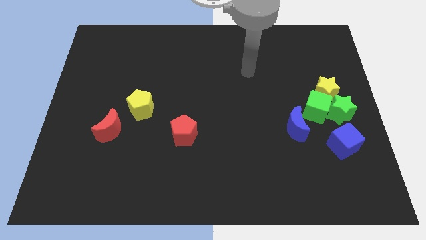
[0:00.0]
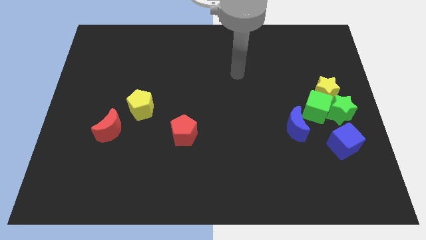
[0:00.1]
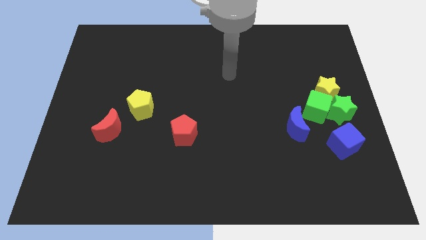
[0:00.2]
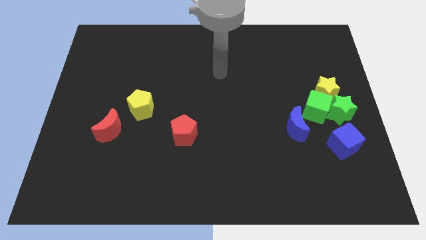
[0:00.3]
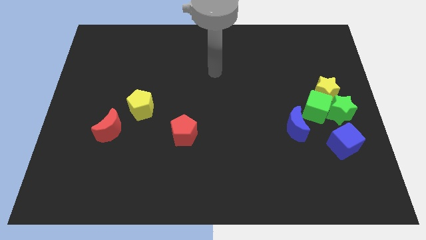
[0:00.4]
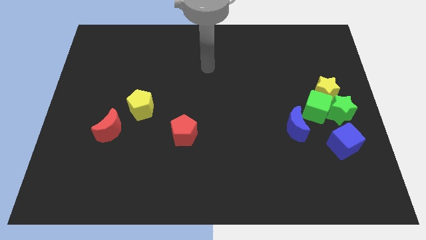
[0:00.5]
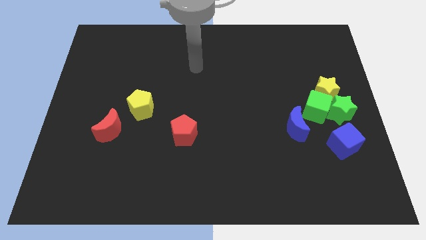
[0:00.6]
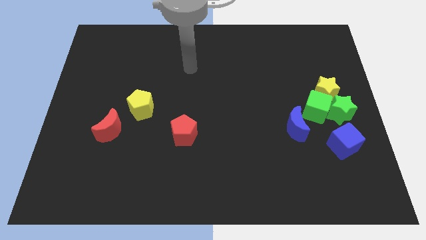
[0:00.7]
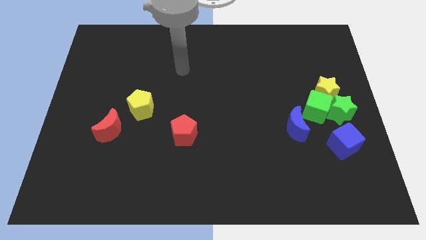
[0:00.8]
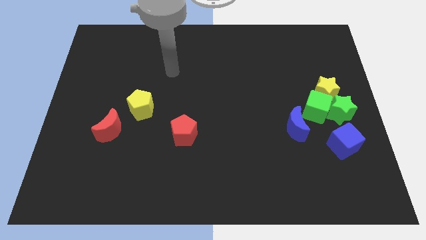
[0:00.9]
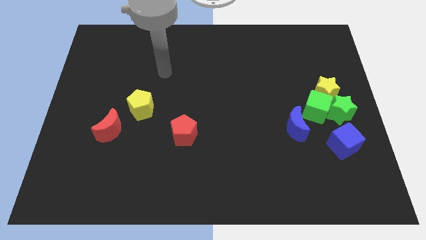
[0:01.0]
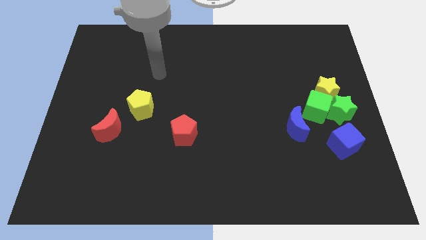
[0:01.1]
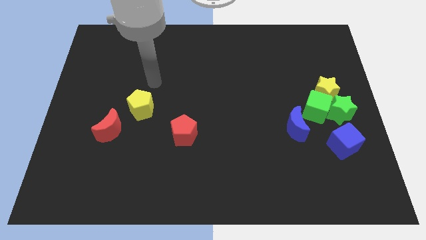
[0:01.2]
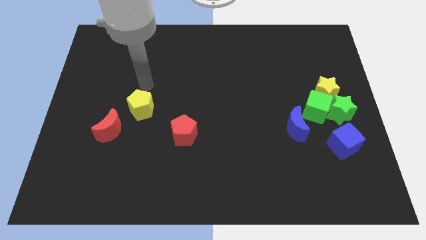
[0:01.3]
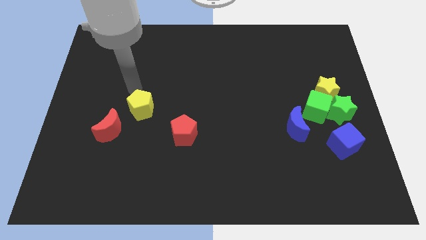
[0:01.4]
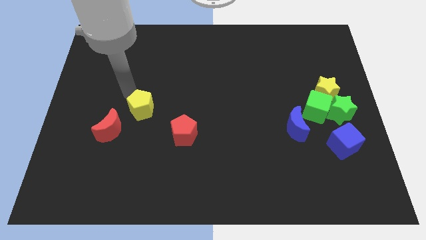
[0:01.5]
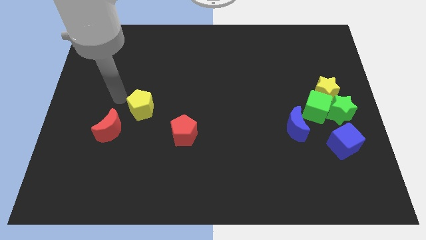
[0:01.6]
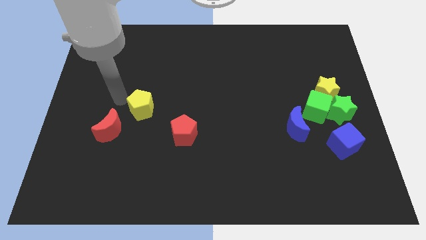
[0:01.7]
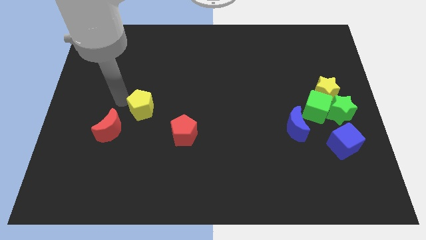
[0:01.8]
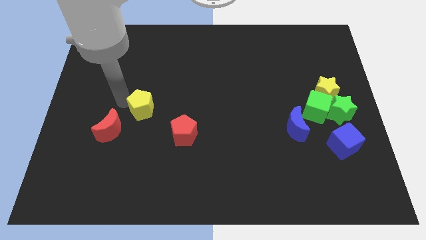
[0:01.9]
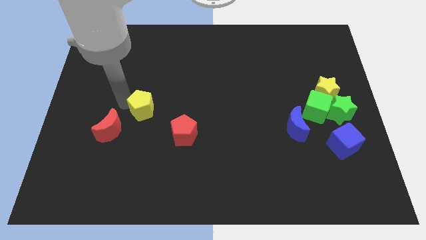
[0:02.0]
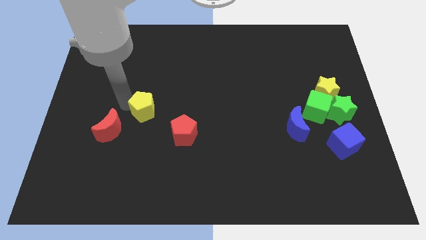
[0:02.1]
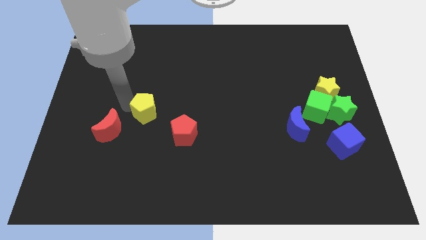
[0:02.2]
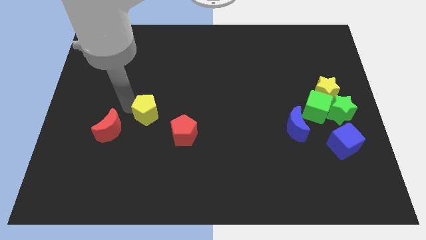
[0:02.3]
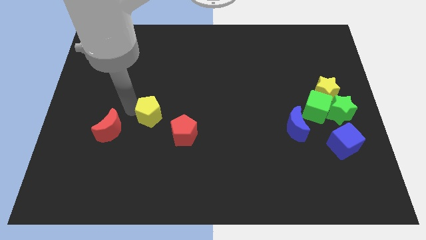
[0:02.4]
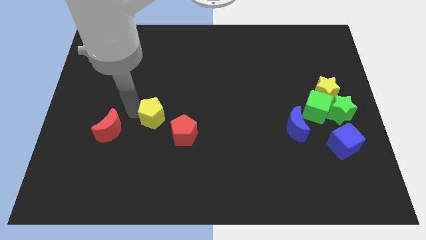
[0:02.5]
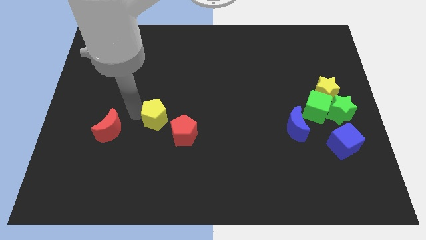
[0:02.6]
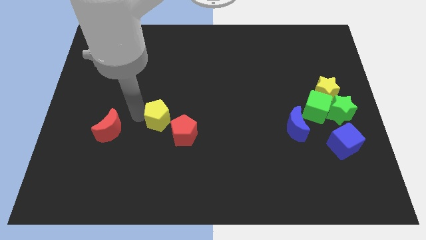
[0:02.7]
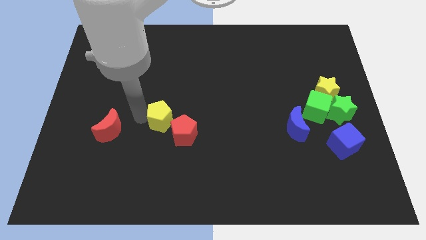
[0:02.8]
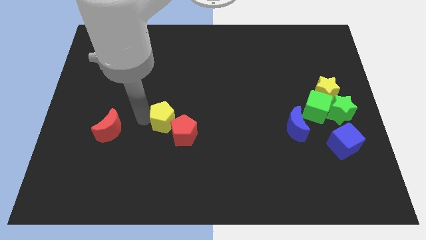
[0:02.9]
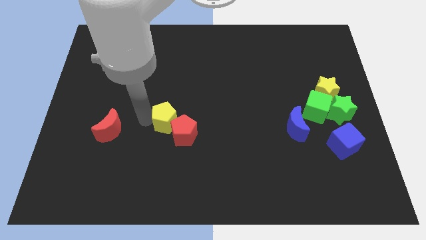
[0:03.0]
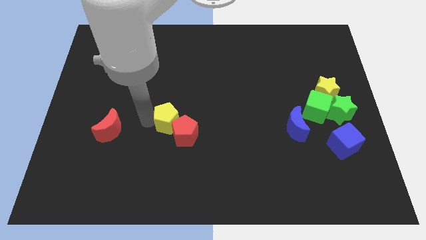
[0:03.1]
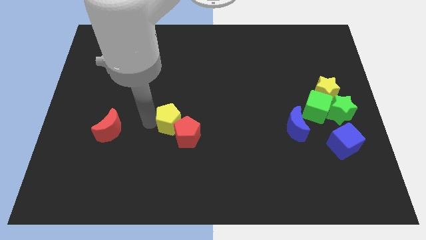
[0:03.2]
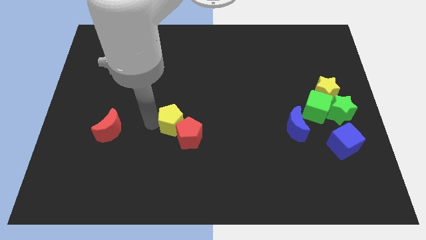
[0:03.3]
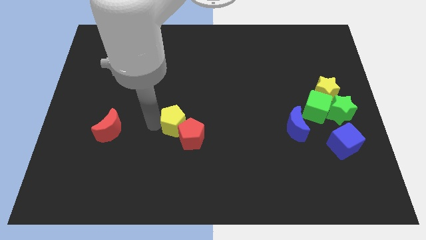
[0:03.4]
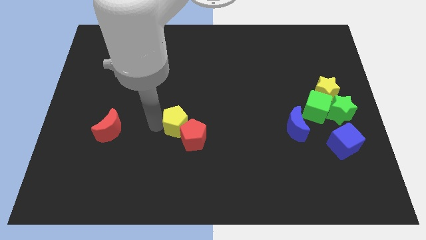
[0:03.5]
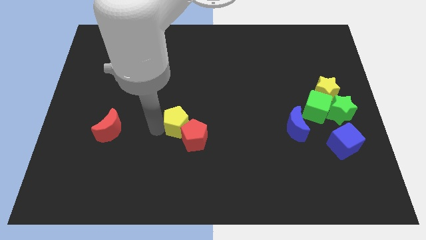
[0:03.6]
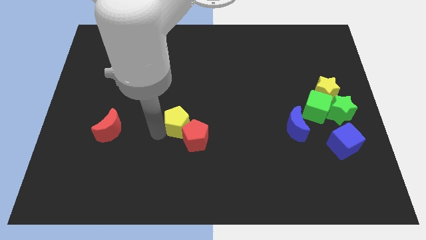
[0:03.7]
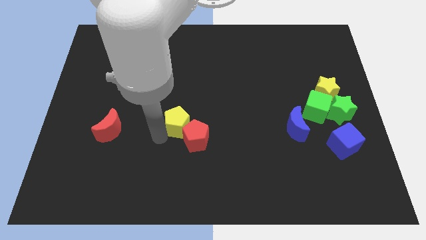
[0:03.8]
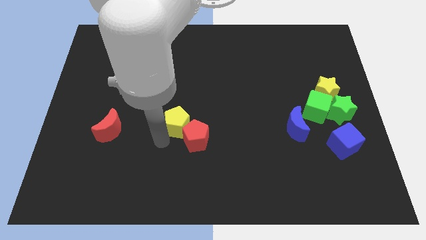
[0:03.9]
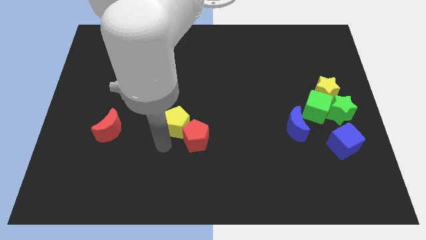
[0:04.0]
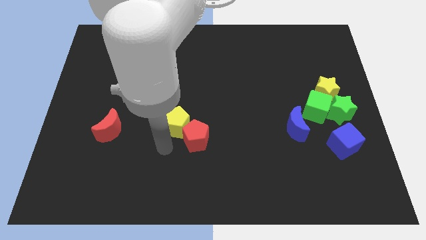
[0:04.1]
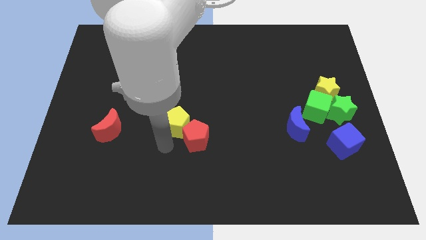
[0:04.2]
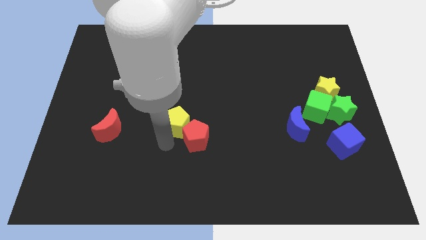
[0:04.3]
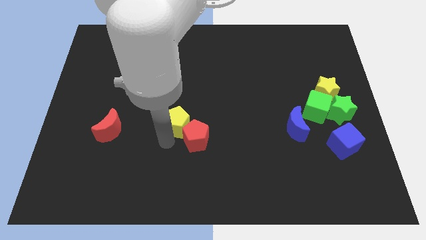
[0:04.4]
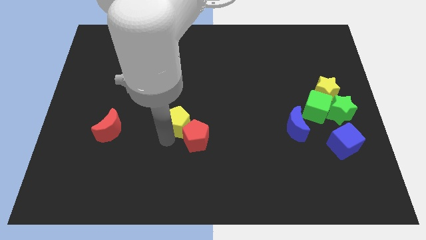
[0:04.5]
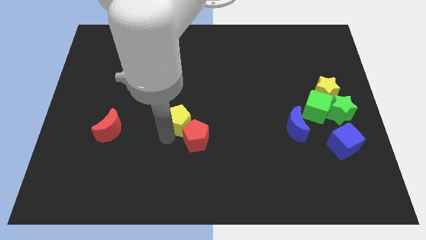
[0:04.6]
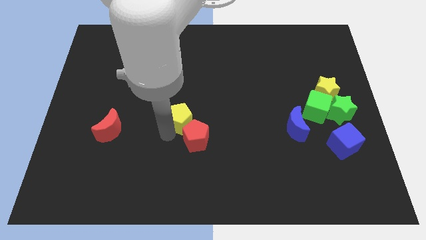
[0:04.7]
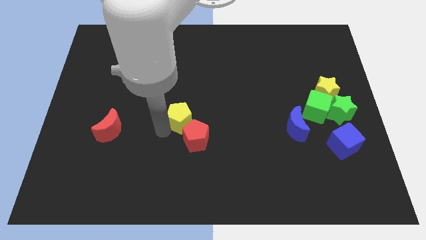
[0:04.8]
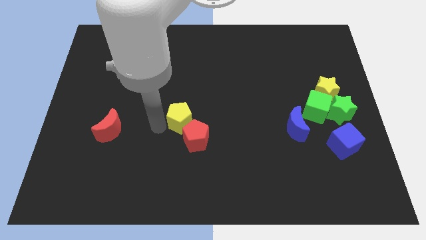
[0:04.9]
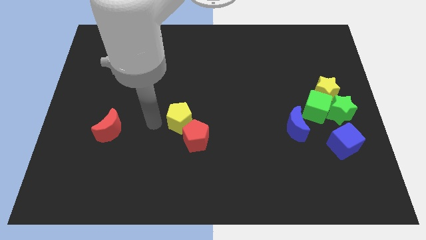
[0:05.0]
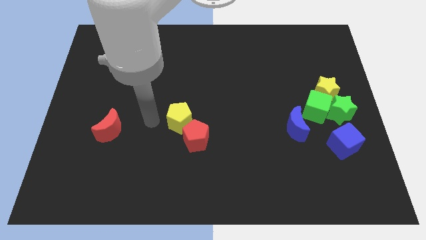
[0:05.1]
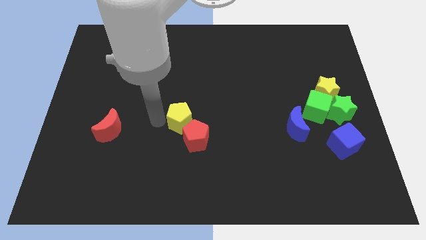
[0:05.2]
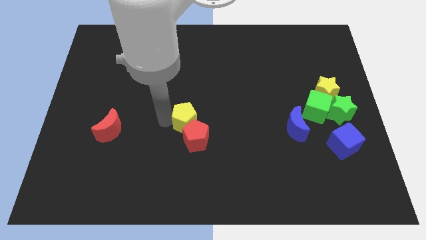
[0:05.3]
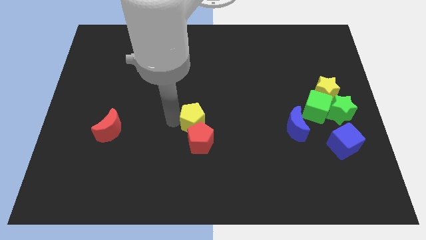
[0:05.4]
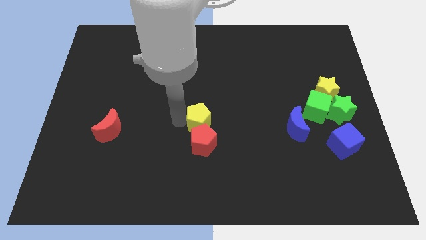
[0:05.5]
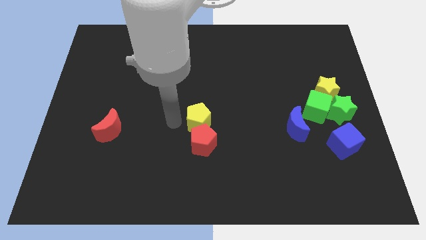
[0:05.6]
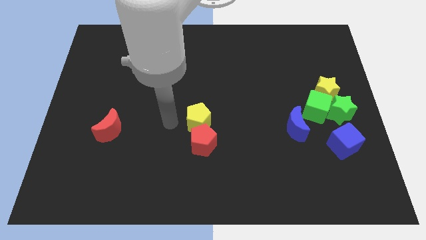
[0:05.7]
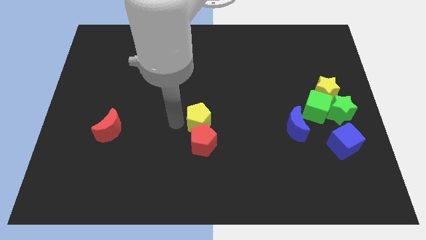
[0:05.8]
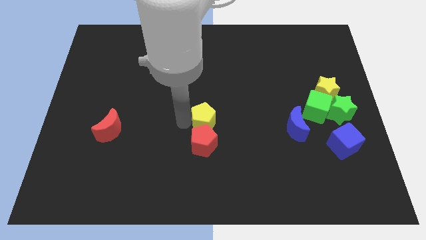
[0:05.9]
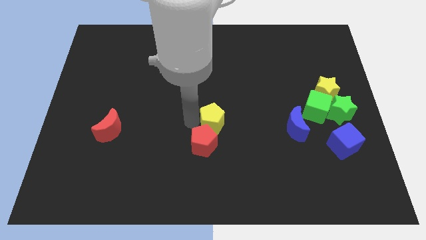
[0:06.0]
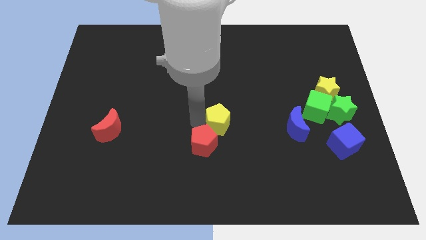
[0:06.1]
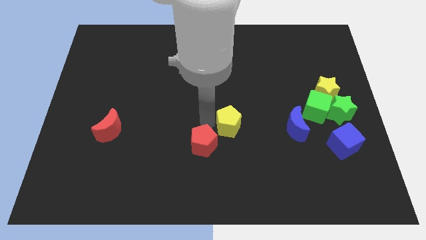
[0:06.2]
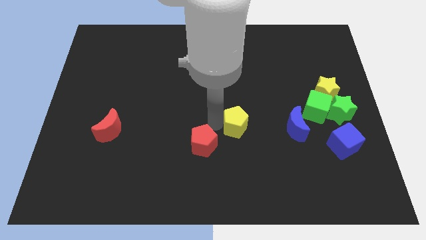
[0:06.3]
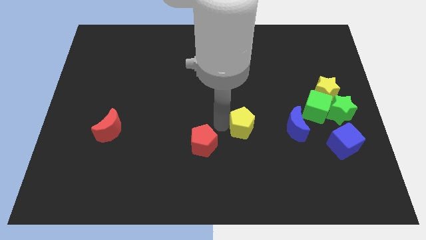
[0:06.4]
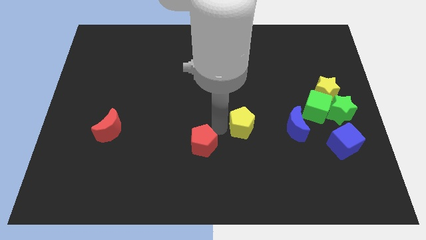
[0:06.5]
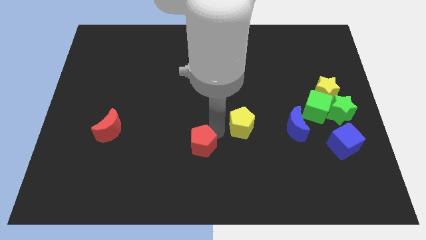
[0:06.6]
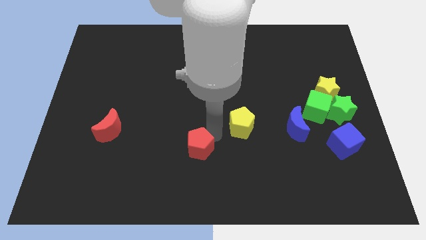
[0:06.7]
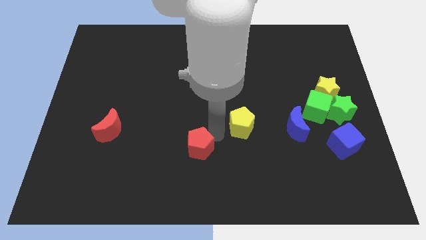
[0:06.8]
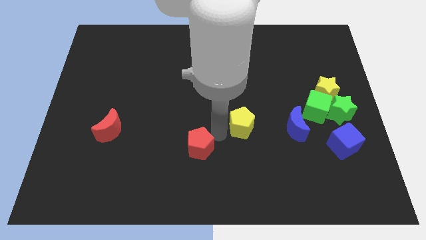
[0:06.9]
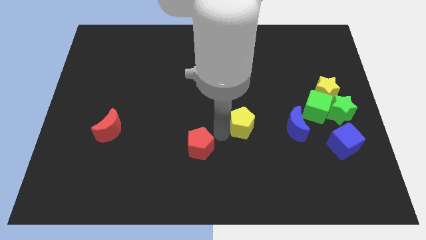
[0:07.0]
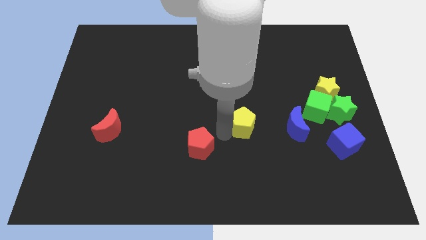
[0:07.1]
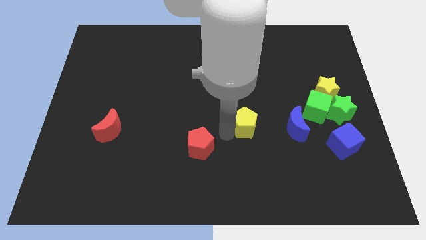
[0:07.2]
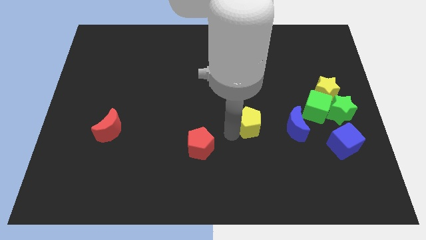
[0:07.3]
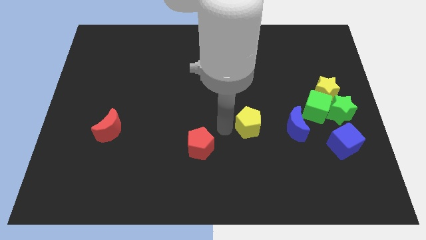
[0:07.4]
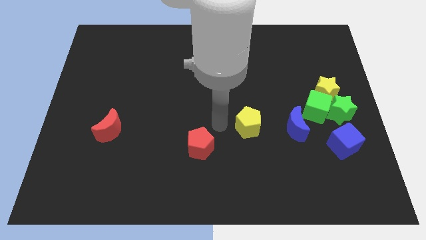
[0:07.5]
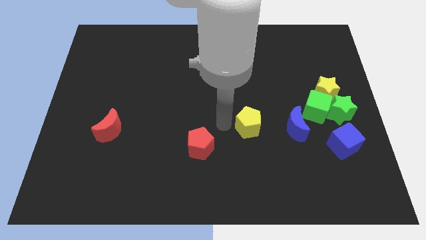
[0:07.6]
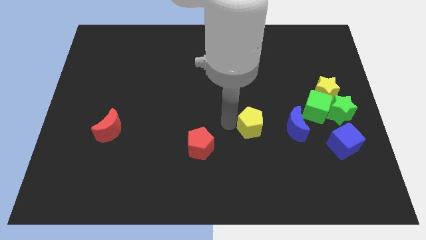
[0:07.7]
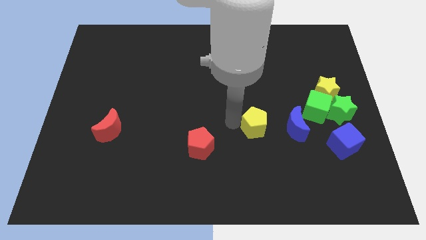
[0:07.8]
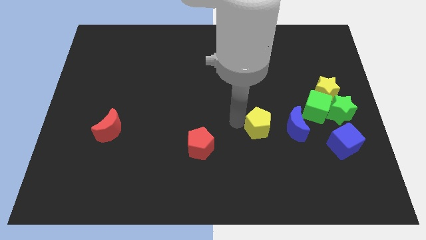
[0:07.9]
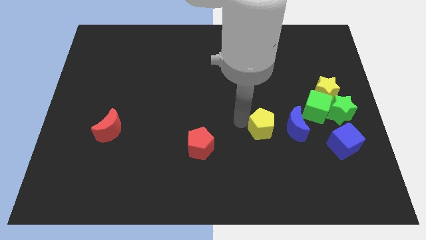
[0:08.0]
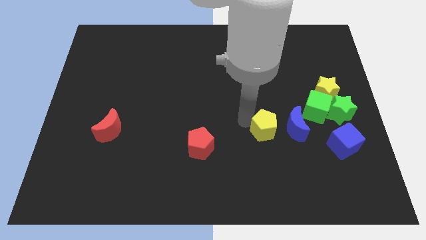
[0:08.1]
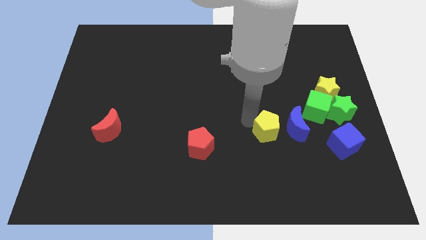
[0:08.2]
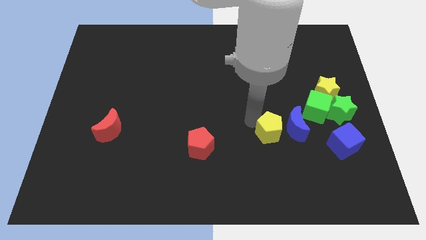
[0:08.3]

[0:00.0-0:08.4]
put the yellow pentagon to the blue moon
